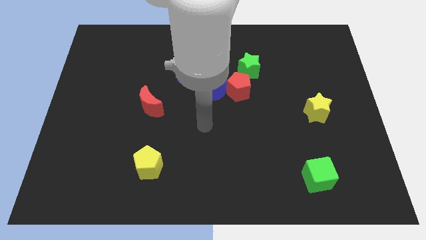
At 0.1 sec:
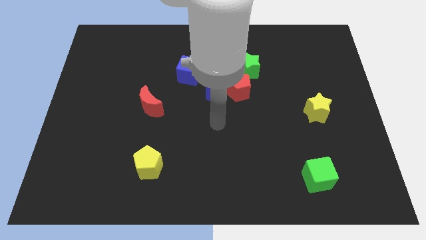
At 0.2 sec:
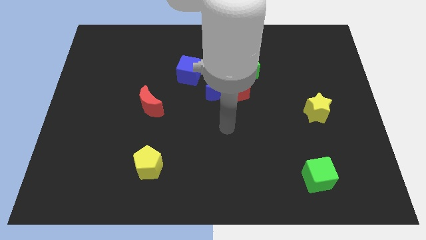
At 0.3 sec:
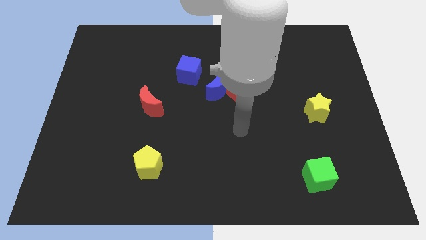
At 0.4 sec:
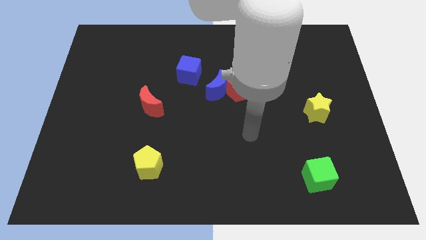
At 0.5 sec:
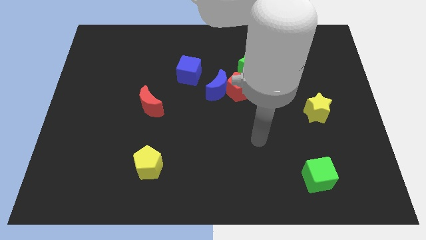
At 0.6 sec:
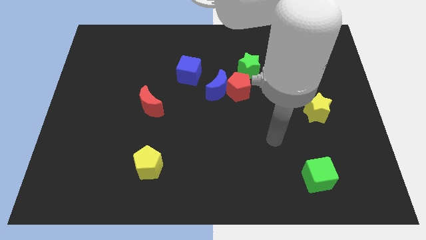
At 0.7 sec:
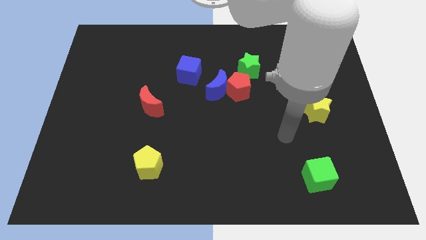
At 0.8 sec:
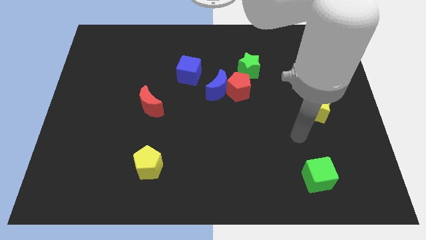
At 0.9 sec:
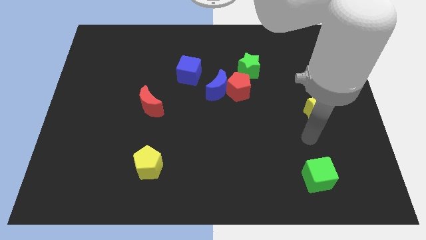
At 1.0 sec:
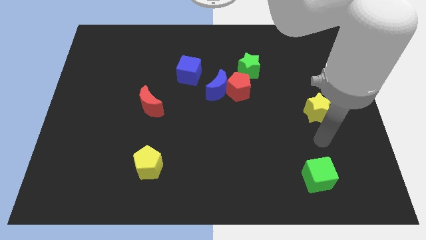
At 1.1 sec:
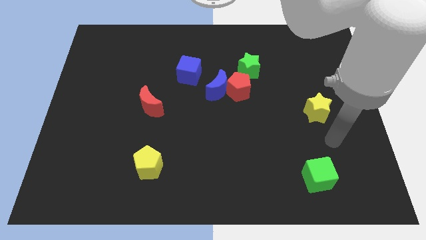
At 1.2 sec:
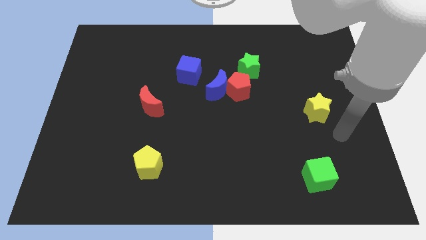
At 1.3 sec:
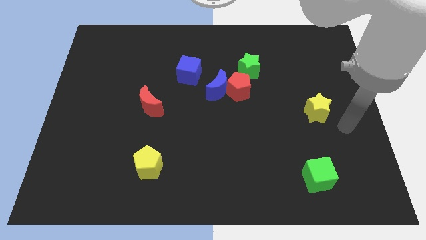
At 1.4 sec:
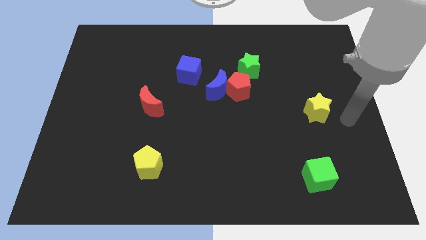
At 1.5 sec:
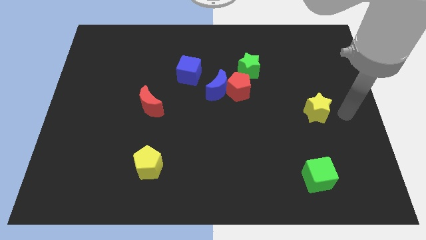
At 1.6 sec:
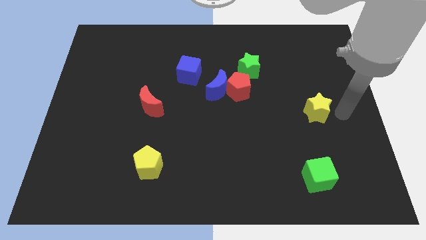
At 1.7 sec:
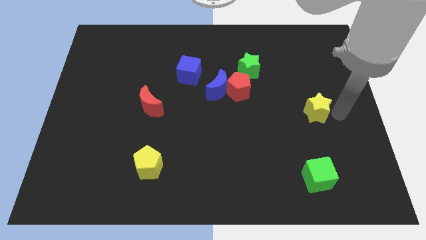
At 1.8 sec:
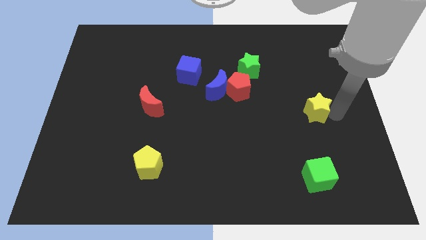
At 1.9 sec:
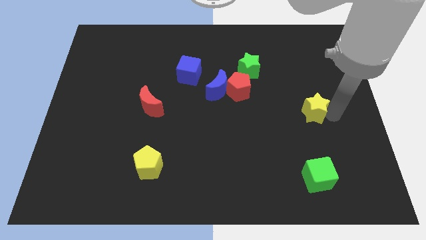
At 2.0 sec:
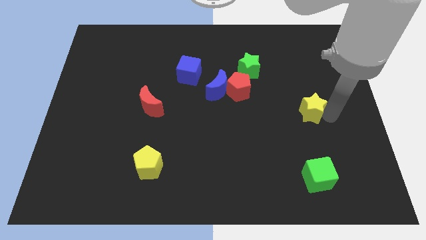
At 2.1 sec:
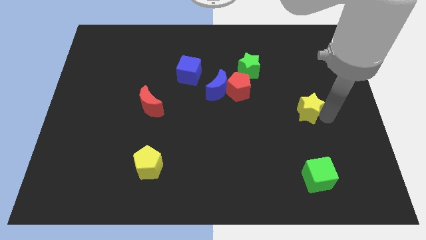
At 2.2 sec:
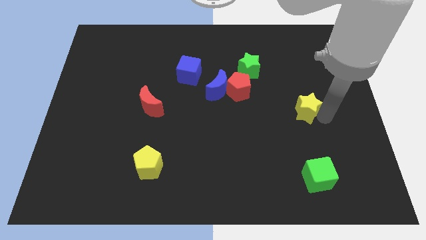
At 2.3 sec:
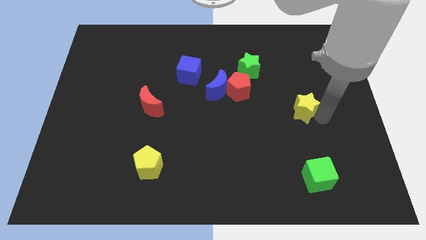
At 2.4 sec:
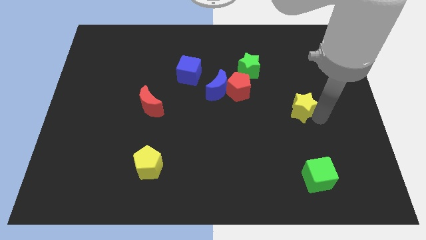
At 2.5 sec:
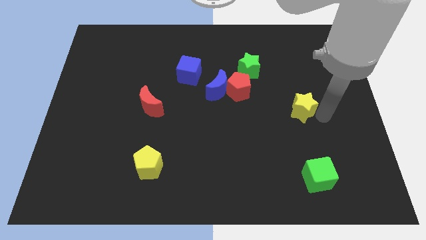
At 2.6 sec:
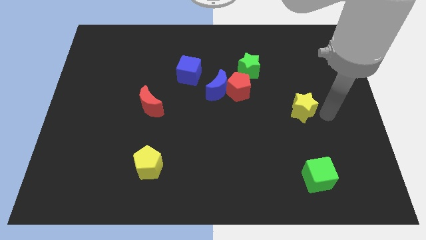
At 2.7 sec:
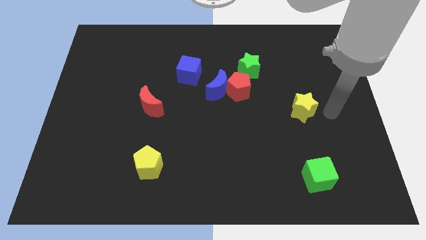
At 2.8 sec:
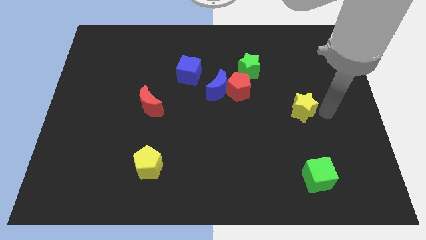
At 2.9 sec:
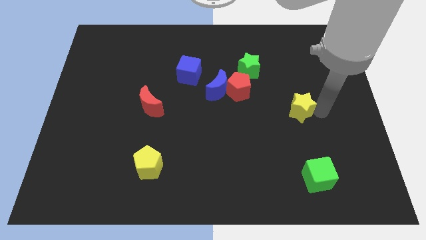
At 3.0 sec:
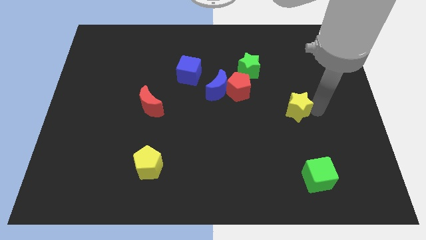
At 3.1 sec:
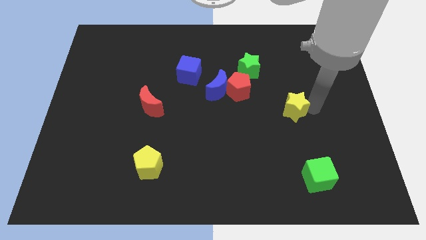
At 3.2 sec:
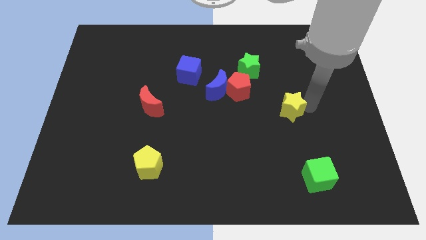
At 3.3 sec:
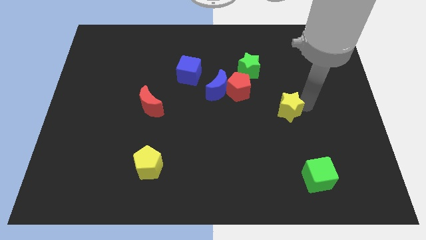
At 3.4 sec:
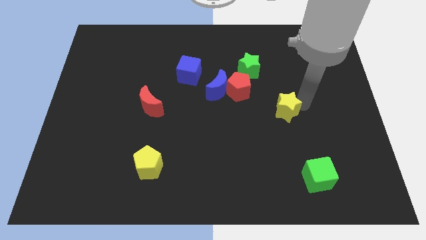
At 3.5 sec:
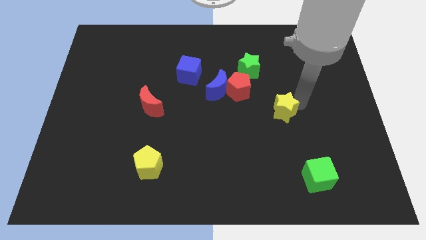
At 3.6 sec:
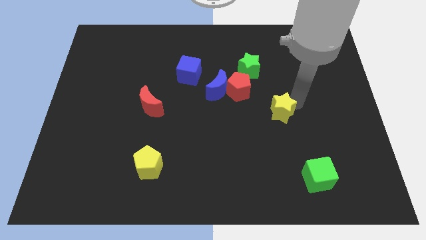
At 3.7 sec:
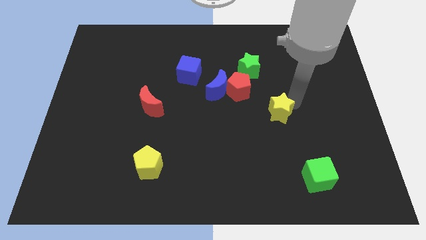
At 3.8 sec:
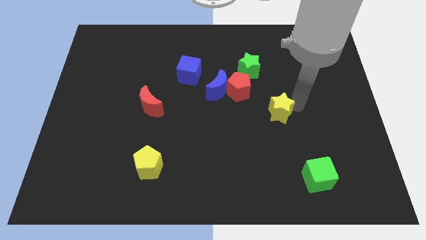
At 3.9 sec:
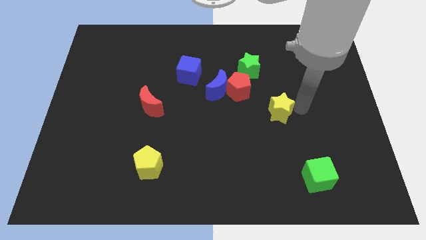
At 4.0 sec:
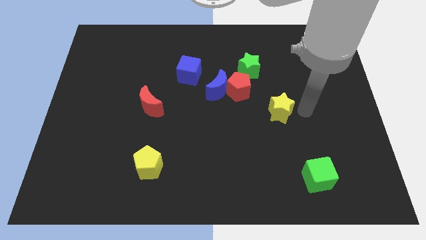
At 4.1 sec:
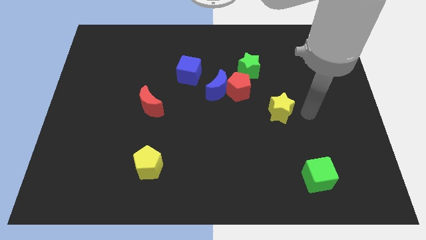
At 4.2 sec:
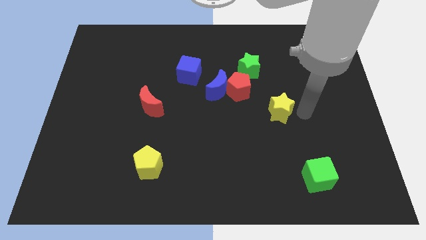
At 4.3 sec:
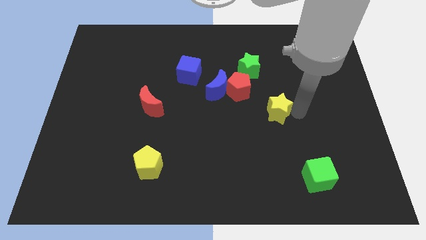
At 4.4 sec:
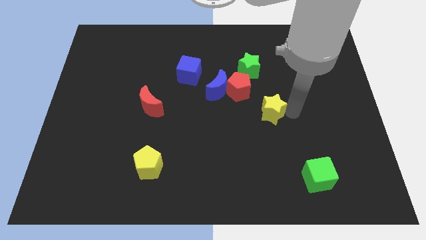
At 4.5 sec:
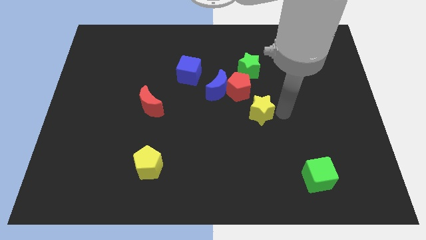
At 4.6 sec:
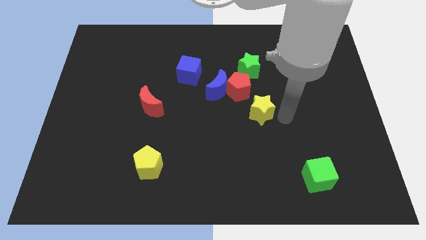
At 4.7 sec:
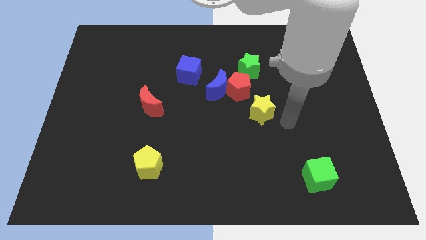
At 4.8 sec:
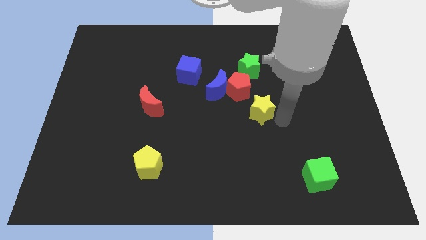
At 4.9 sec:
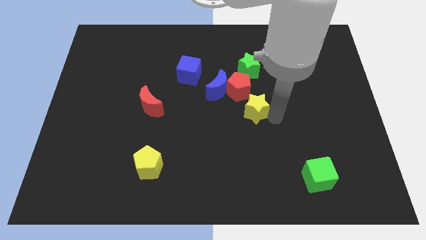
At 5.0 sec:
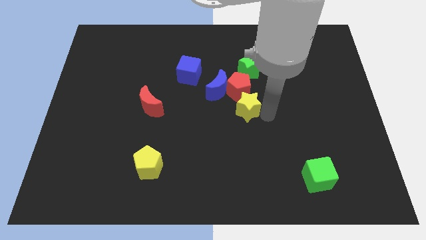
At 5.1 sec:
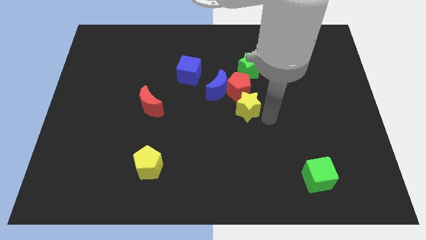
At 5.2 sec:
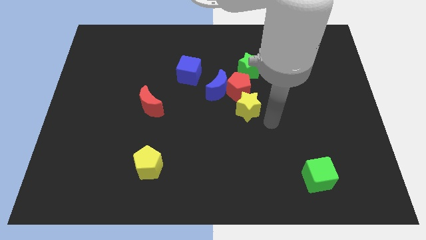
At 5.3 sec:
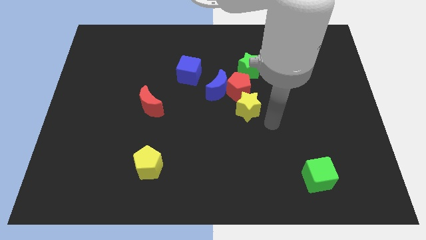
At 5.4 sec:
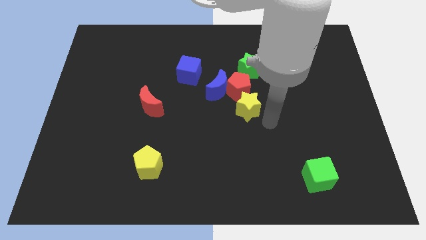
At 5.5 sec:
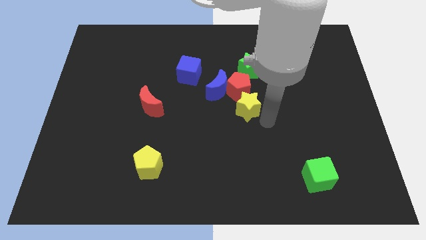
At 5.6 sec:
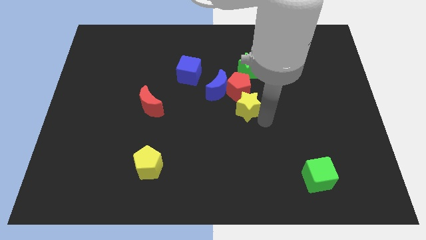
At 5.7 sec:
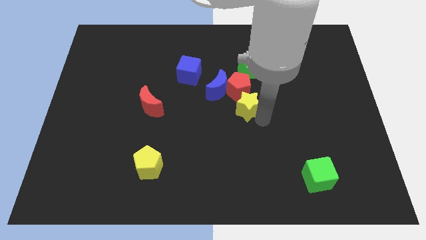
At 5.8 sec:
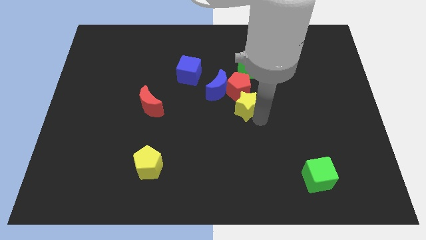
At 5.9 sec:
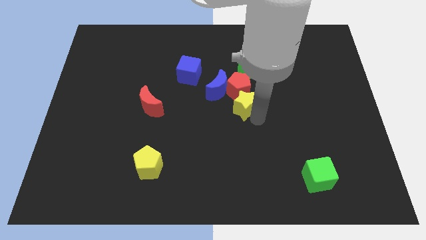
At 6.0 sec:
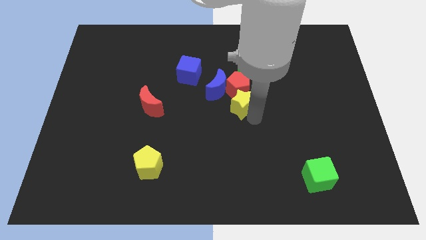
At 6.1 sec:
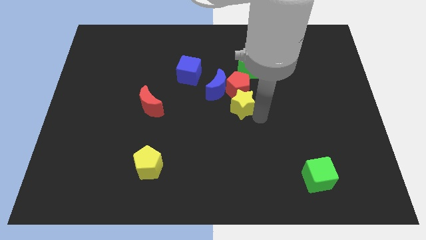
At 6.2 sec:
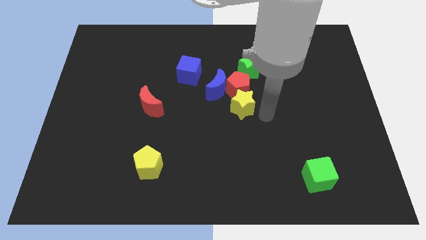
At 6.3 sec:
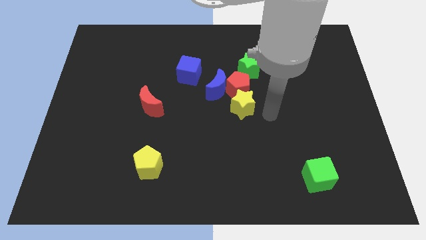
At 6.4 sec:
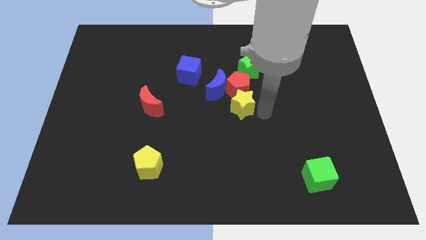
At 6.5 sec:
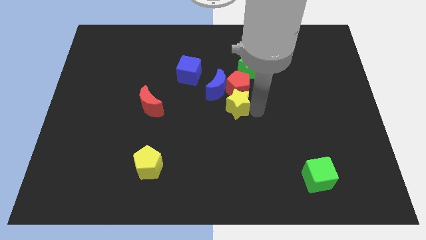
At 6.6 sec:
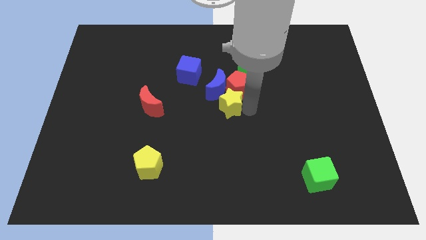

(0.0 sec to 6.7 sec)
move the yellow star towards the blue moon
